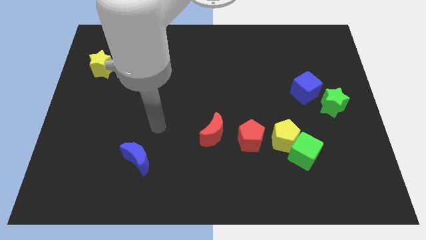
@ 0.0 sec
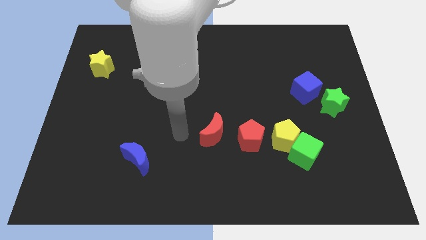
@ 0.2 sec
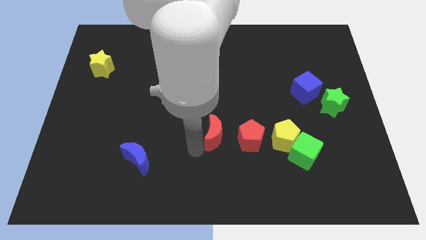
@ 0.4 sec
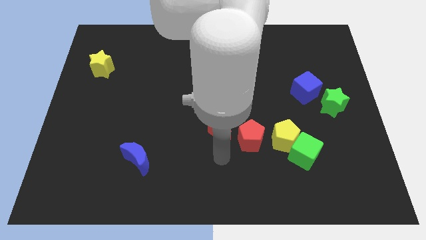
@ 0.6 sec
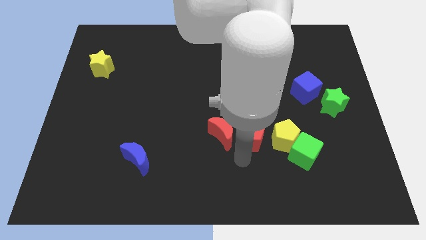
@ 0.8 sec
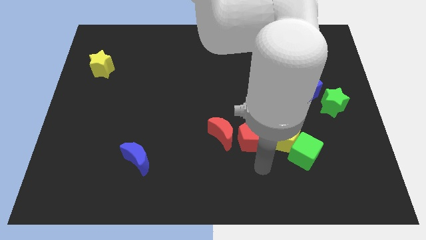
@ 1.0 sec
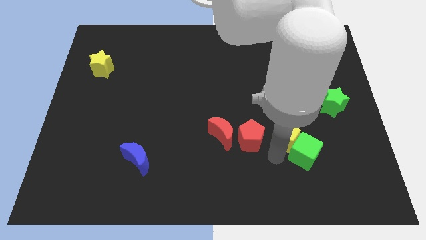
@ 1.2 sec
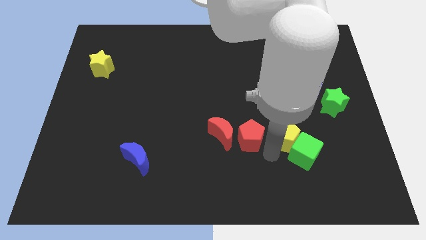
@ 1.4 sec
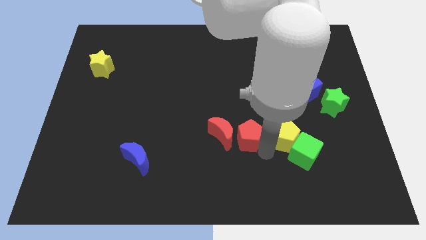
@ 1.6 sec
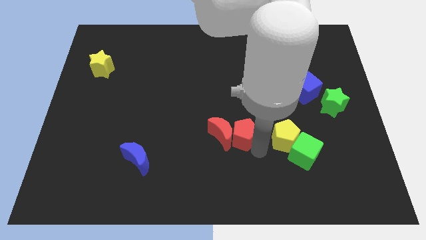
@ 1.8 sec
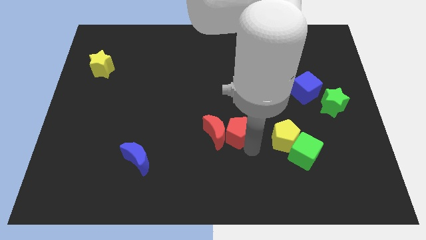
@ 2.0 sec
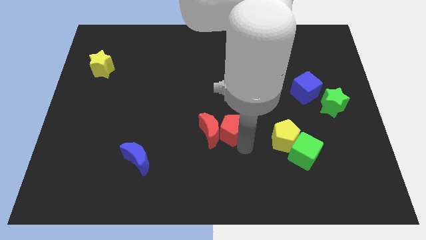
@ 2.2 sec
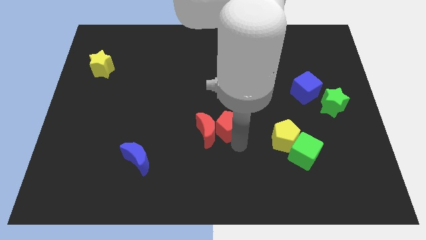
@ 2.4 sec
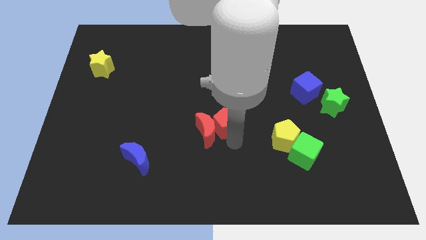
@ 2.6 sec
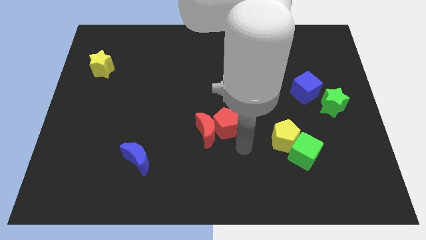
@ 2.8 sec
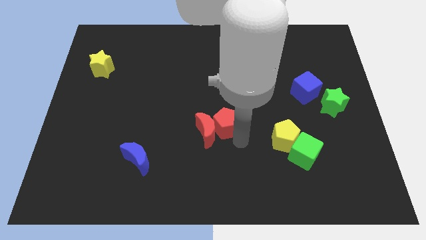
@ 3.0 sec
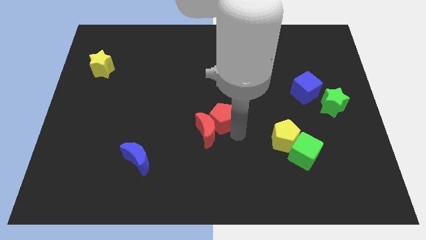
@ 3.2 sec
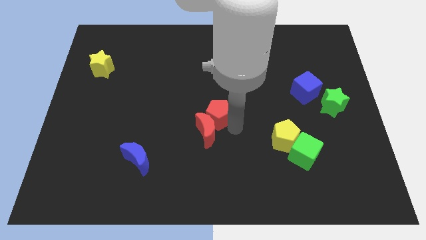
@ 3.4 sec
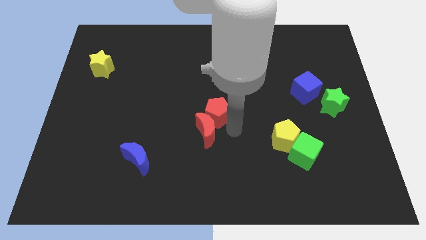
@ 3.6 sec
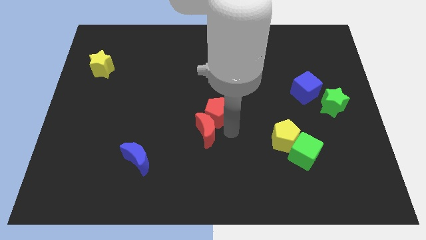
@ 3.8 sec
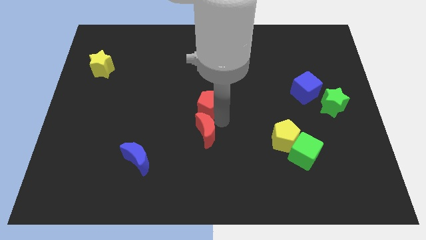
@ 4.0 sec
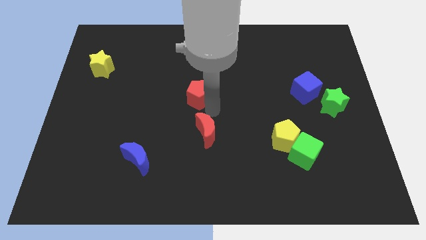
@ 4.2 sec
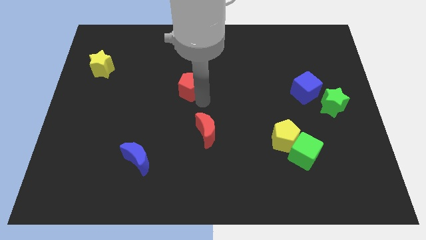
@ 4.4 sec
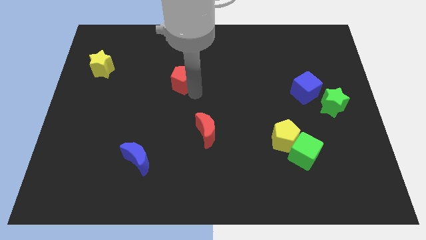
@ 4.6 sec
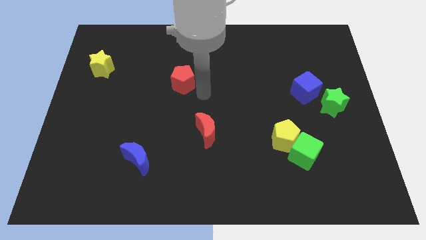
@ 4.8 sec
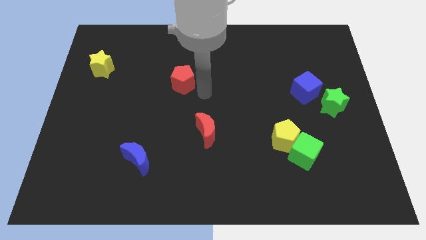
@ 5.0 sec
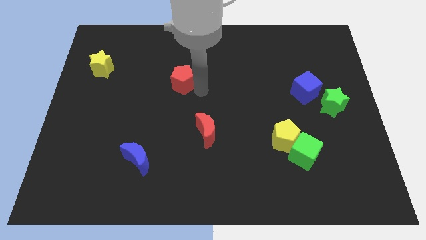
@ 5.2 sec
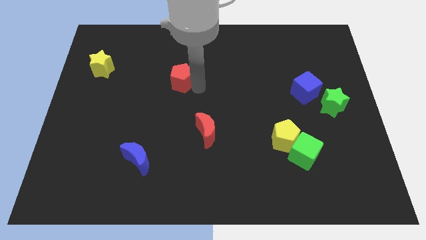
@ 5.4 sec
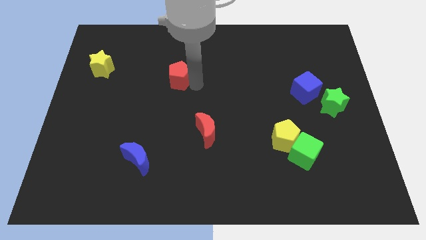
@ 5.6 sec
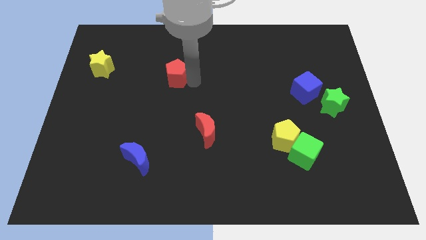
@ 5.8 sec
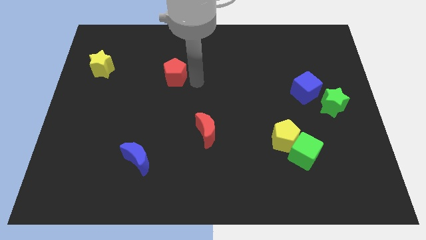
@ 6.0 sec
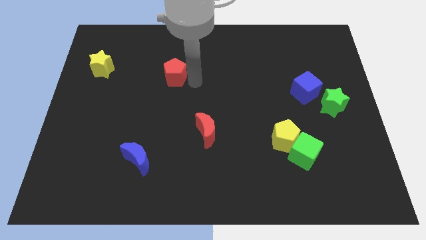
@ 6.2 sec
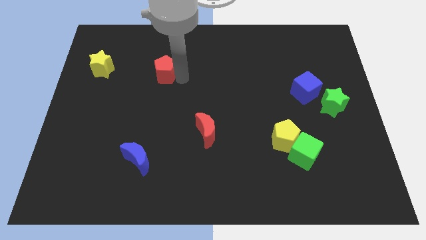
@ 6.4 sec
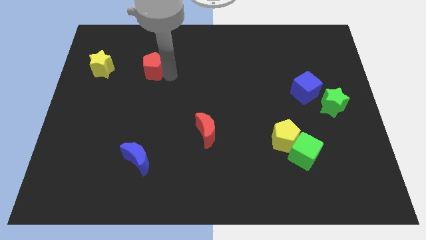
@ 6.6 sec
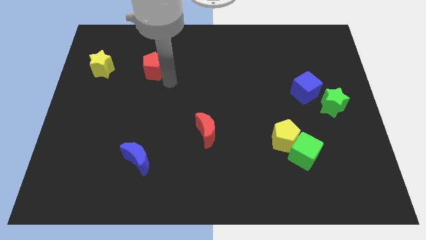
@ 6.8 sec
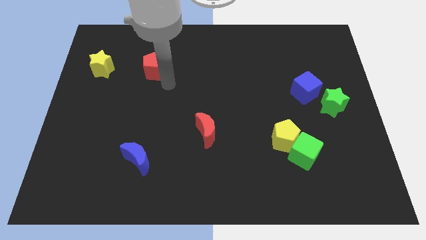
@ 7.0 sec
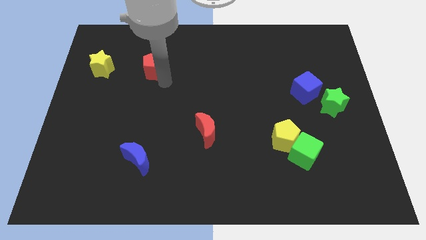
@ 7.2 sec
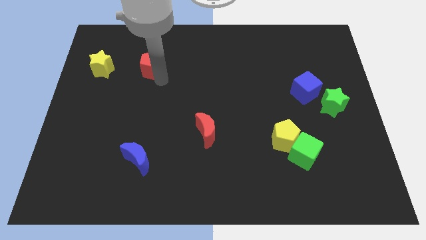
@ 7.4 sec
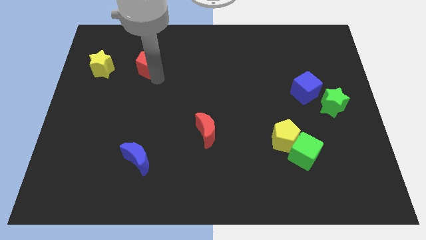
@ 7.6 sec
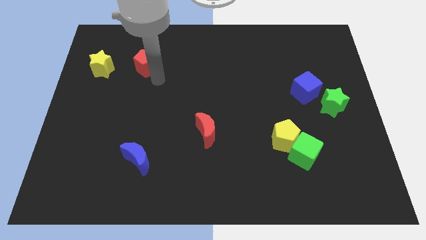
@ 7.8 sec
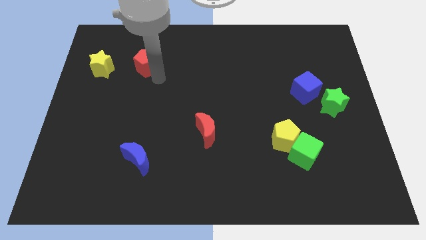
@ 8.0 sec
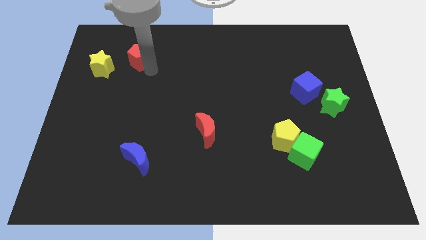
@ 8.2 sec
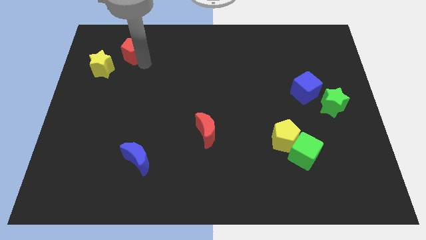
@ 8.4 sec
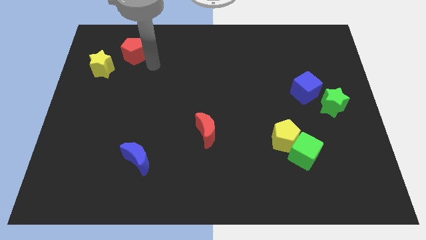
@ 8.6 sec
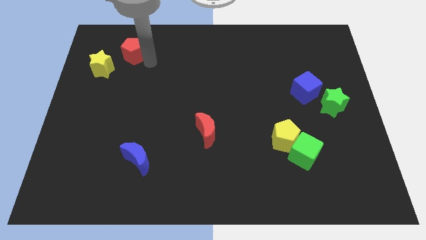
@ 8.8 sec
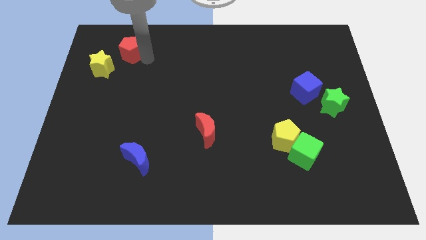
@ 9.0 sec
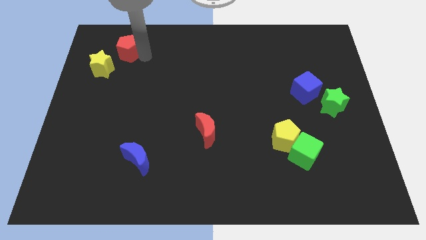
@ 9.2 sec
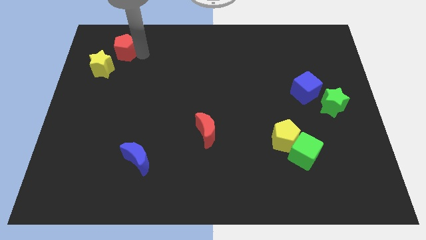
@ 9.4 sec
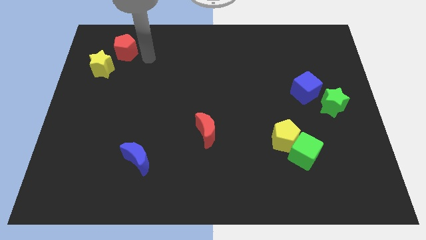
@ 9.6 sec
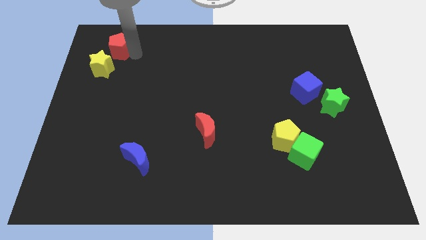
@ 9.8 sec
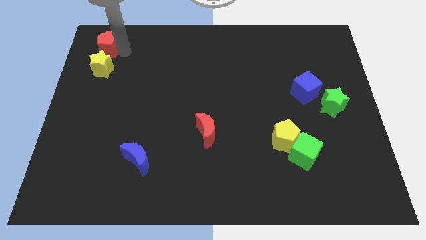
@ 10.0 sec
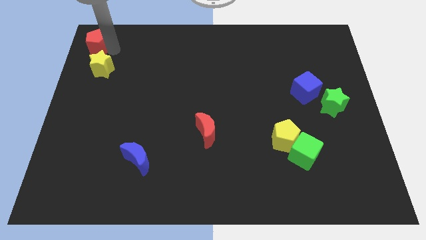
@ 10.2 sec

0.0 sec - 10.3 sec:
move the red pentagon to the top left corner

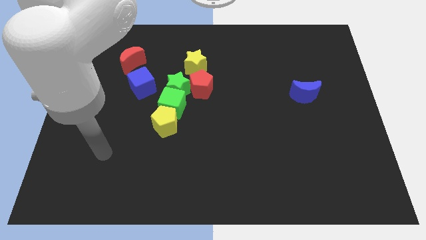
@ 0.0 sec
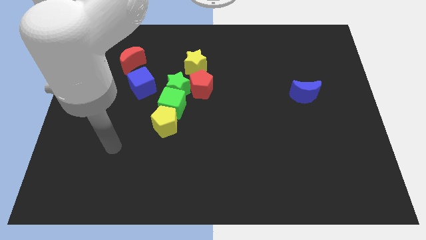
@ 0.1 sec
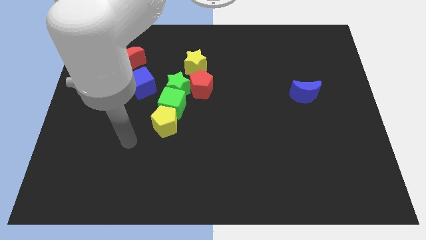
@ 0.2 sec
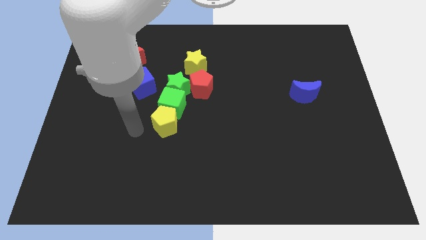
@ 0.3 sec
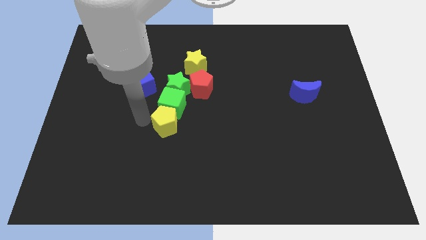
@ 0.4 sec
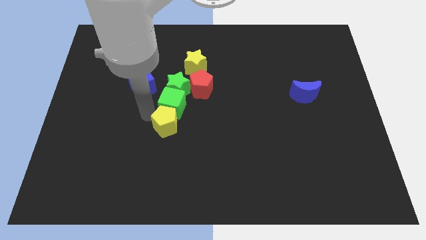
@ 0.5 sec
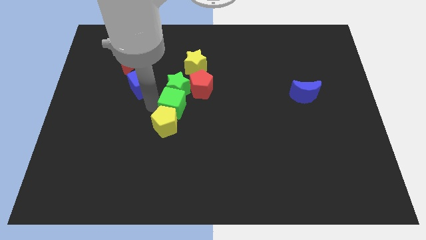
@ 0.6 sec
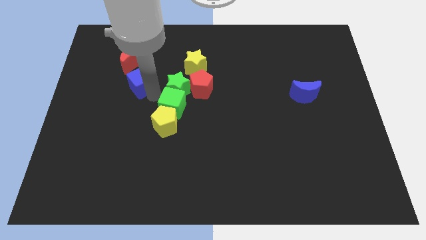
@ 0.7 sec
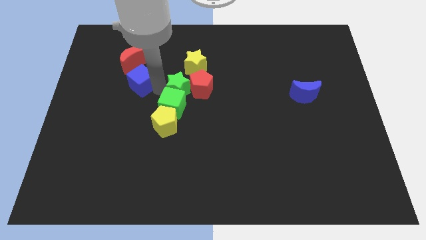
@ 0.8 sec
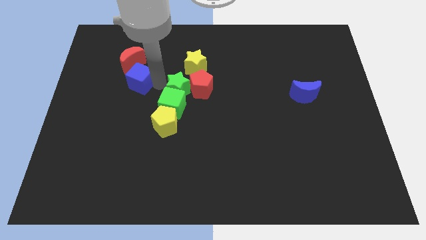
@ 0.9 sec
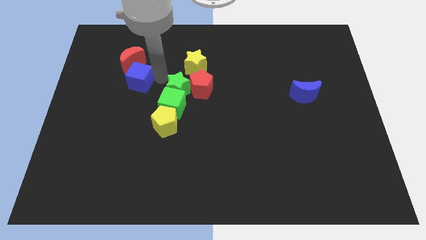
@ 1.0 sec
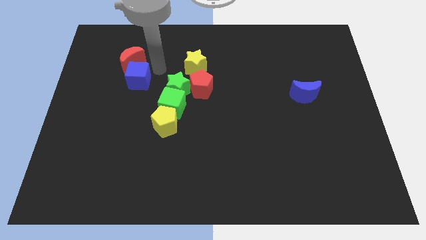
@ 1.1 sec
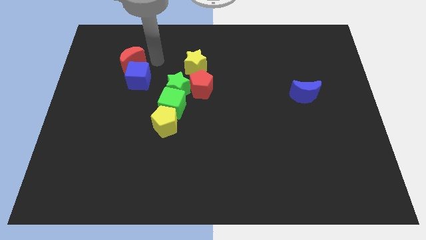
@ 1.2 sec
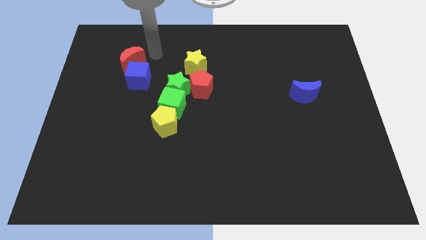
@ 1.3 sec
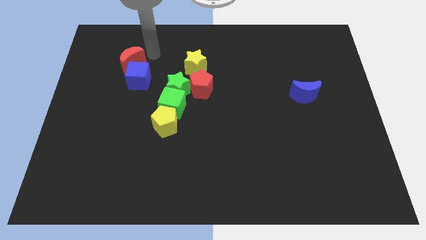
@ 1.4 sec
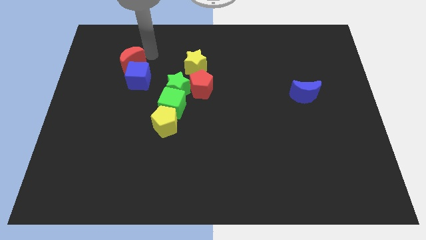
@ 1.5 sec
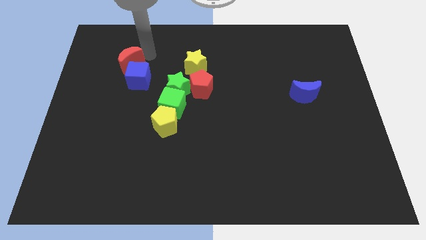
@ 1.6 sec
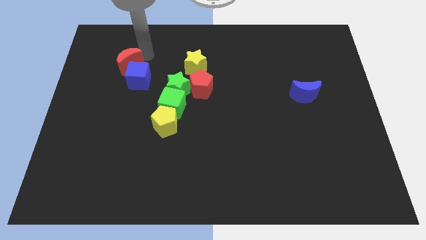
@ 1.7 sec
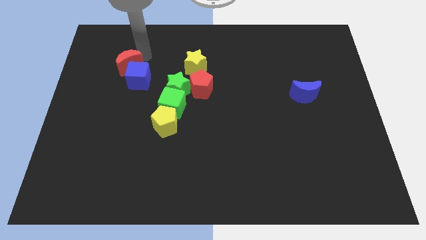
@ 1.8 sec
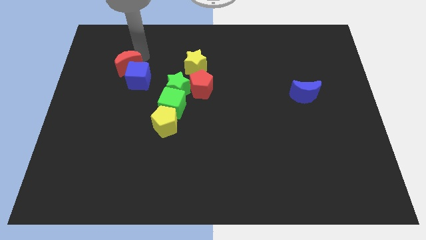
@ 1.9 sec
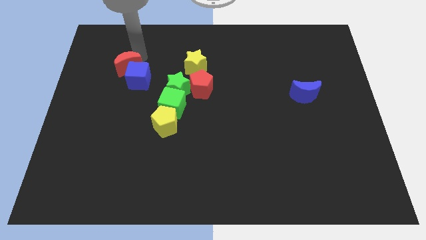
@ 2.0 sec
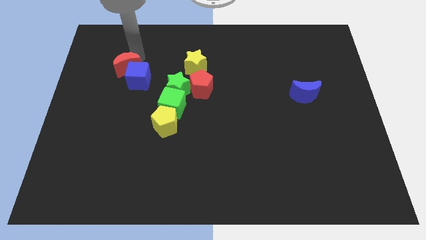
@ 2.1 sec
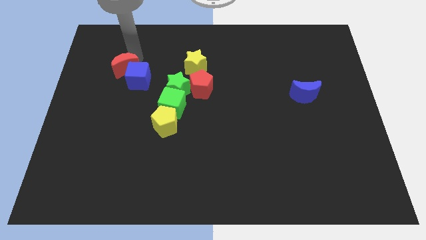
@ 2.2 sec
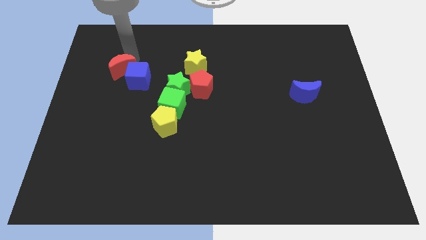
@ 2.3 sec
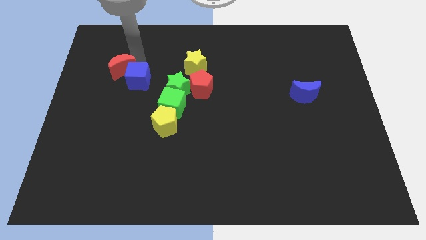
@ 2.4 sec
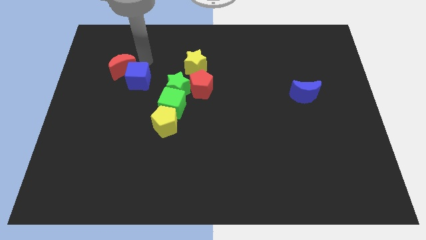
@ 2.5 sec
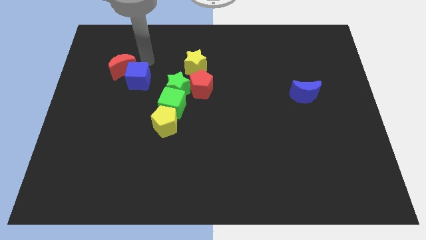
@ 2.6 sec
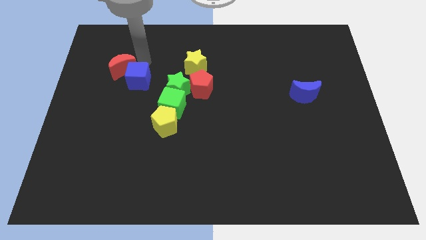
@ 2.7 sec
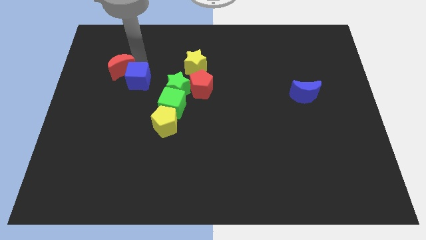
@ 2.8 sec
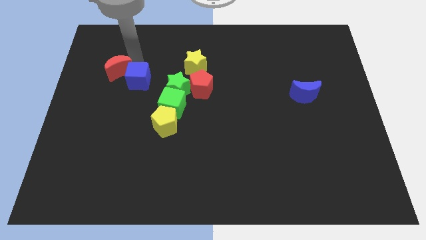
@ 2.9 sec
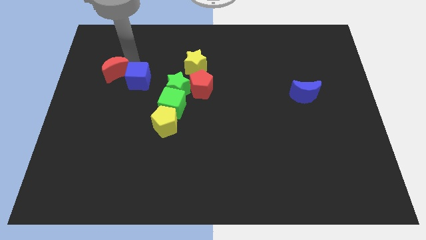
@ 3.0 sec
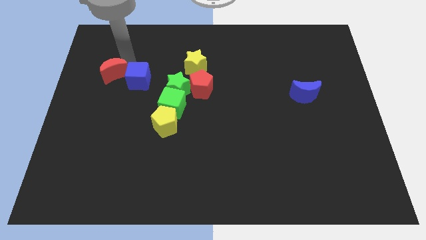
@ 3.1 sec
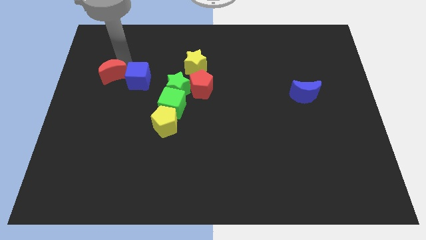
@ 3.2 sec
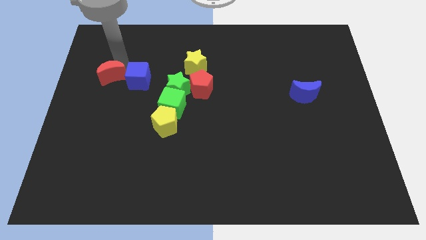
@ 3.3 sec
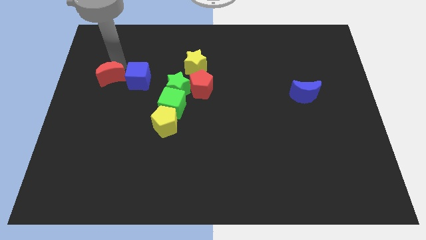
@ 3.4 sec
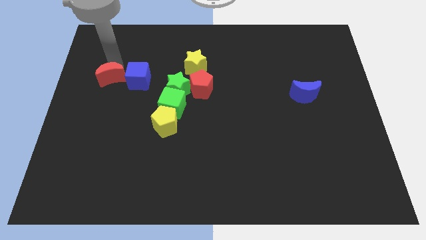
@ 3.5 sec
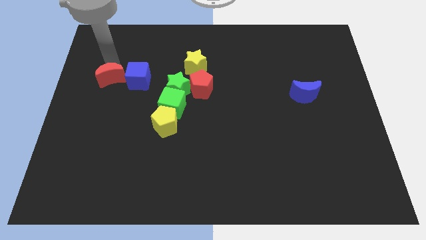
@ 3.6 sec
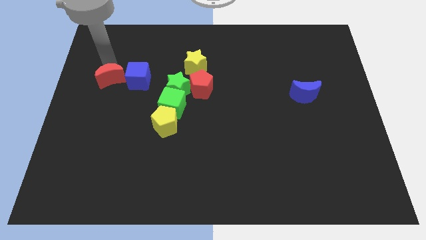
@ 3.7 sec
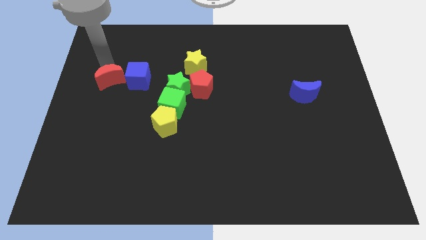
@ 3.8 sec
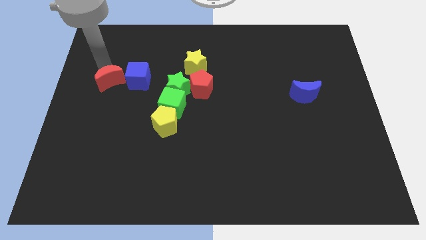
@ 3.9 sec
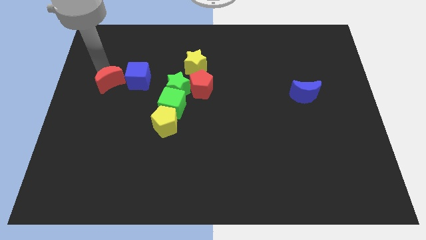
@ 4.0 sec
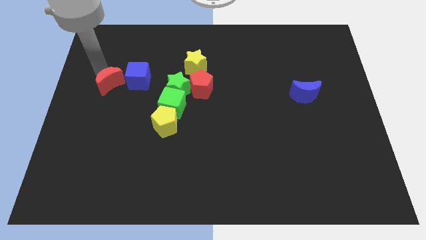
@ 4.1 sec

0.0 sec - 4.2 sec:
put the red moon to the left side of the board
